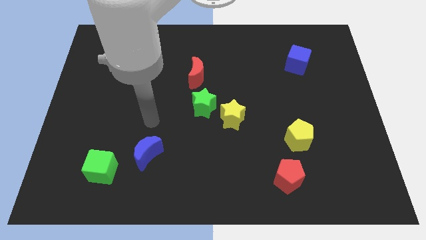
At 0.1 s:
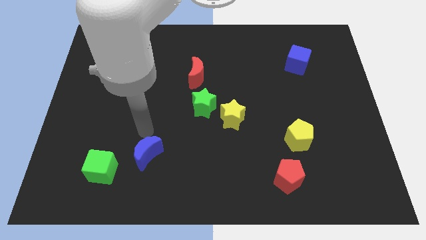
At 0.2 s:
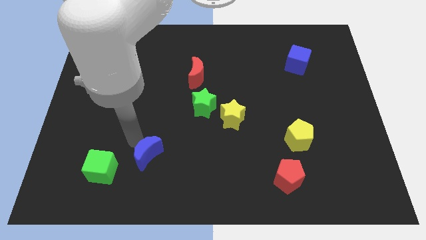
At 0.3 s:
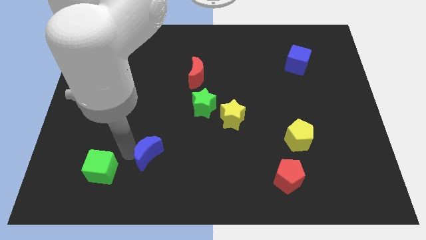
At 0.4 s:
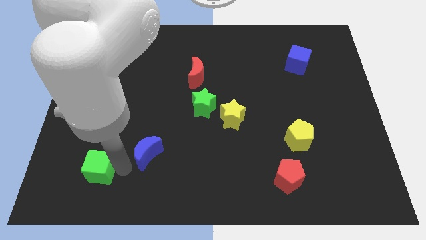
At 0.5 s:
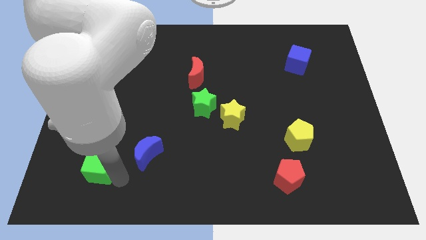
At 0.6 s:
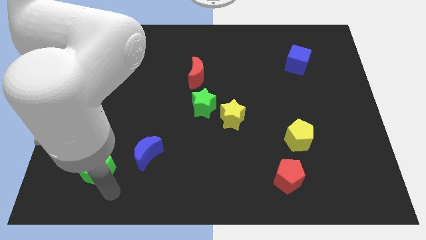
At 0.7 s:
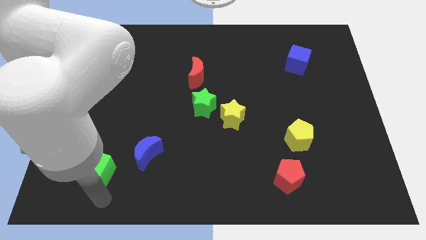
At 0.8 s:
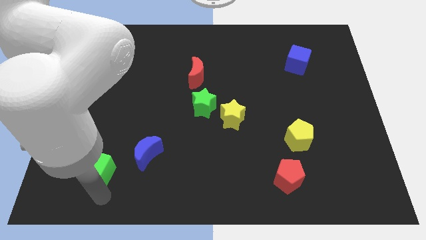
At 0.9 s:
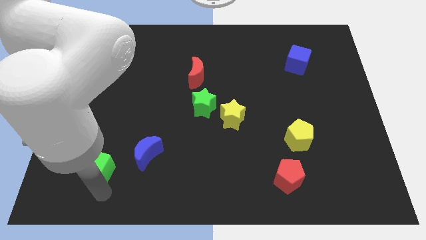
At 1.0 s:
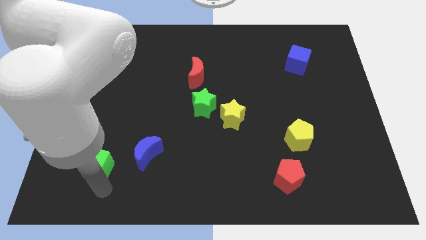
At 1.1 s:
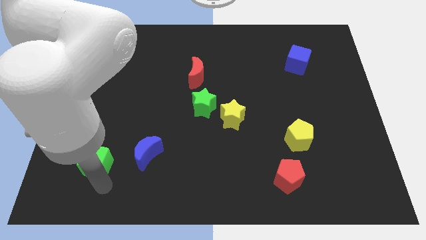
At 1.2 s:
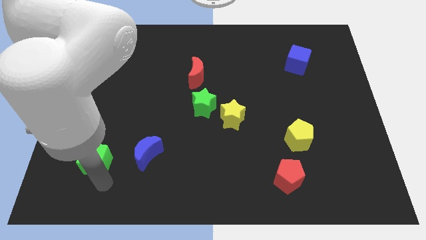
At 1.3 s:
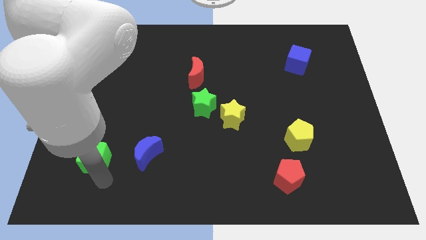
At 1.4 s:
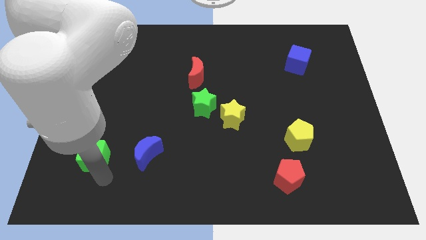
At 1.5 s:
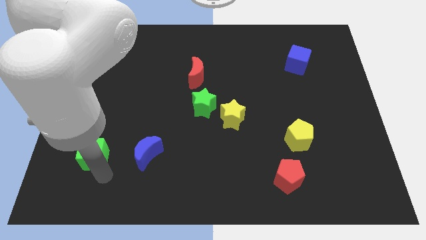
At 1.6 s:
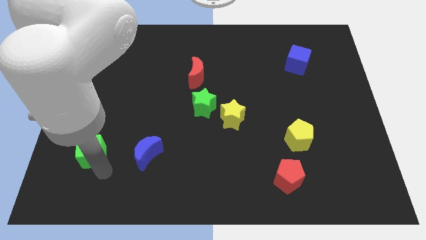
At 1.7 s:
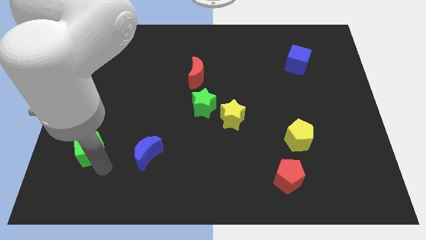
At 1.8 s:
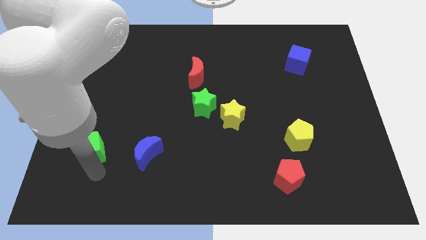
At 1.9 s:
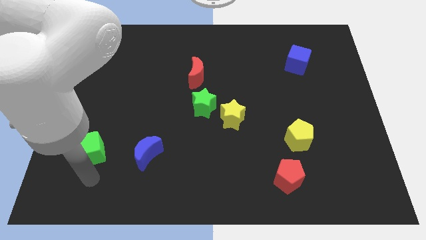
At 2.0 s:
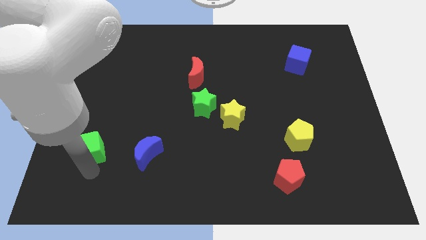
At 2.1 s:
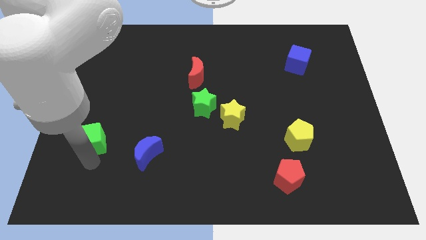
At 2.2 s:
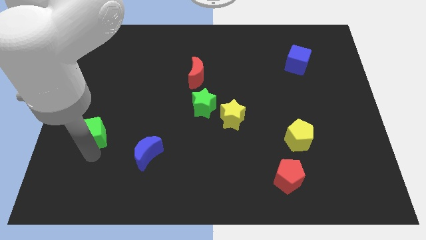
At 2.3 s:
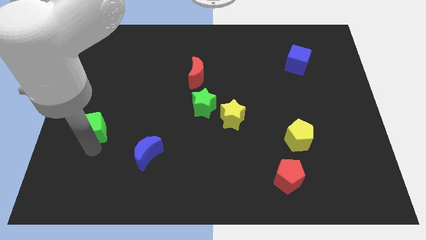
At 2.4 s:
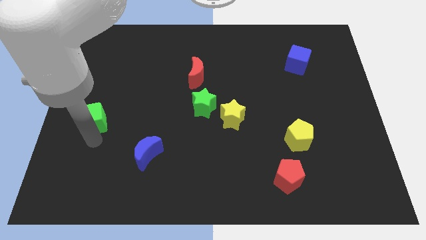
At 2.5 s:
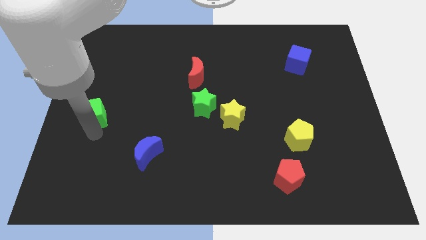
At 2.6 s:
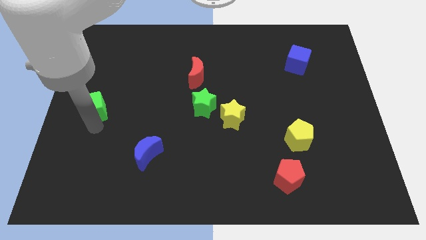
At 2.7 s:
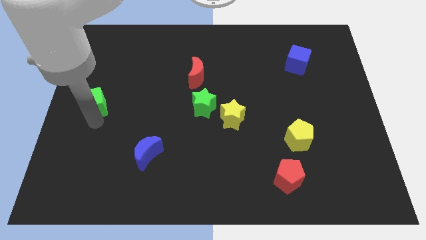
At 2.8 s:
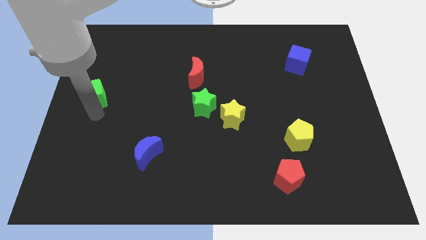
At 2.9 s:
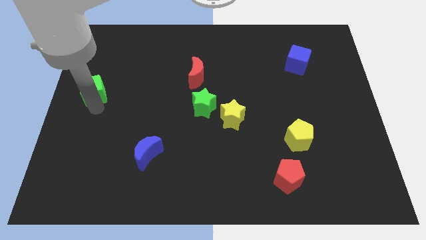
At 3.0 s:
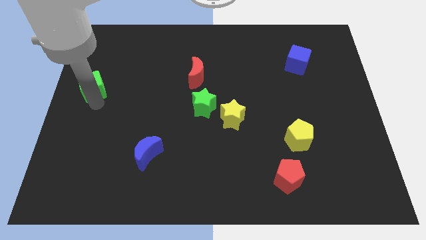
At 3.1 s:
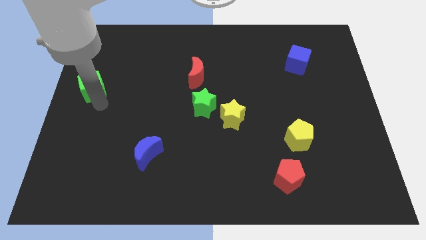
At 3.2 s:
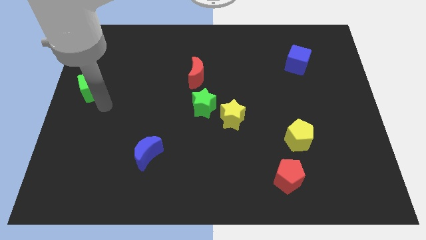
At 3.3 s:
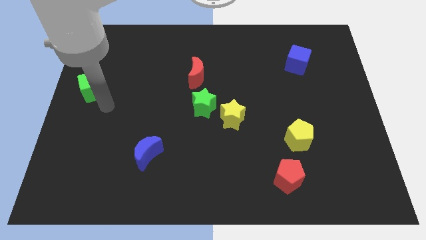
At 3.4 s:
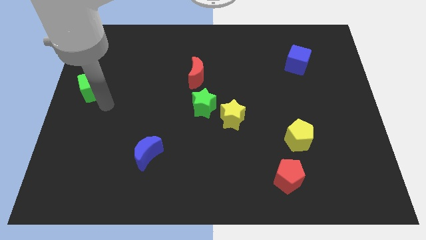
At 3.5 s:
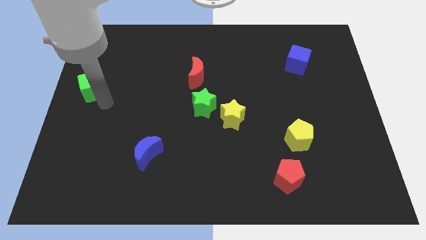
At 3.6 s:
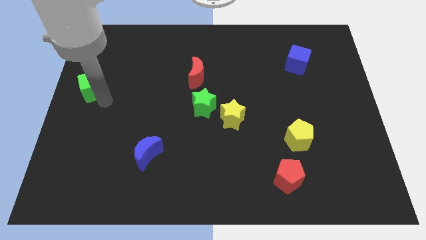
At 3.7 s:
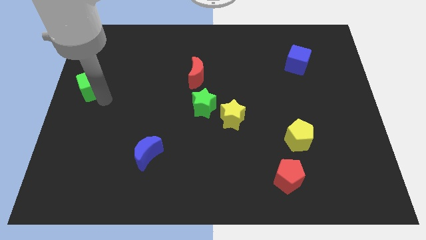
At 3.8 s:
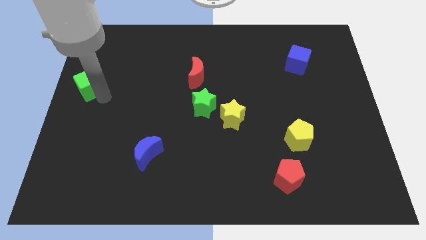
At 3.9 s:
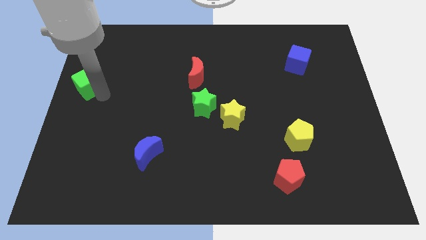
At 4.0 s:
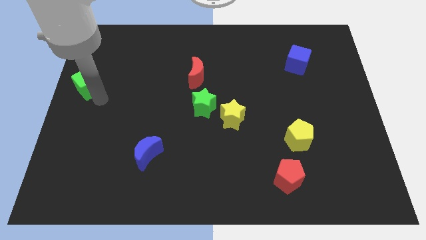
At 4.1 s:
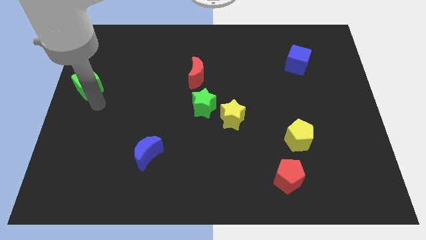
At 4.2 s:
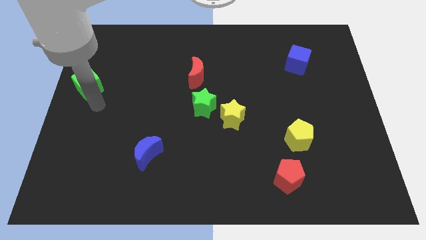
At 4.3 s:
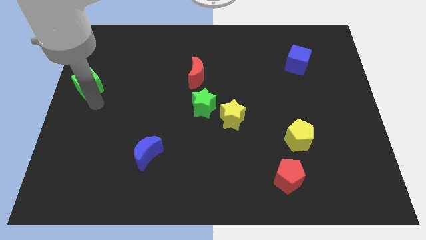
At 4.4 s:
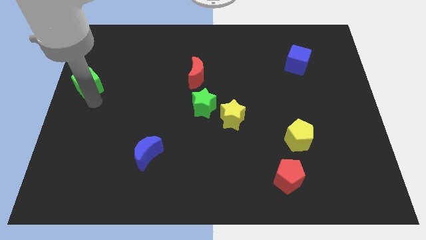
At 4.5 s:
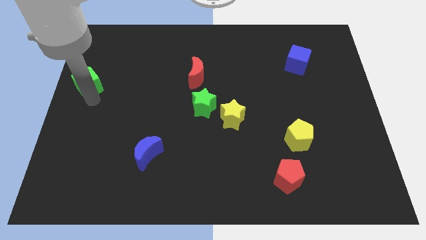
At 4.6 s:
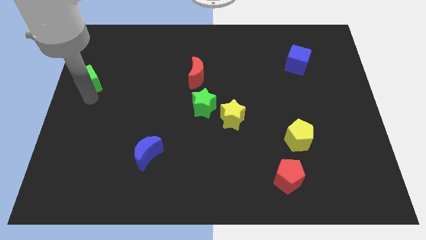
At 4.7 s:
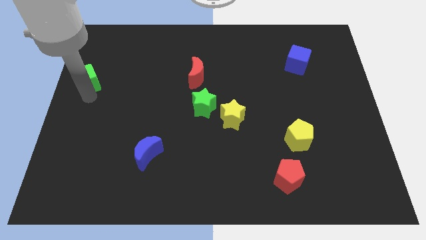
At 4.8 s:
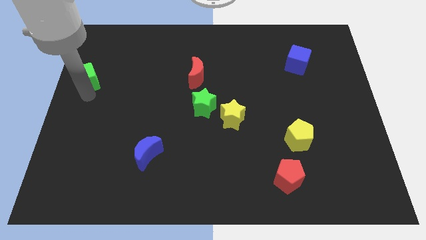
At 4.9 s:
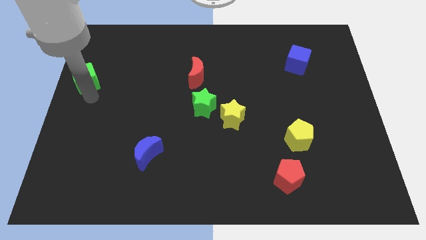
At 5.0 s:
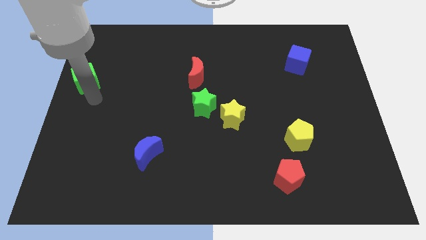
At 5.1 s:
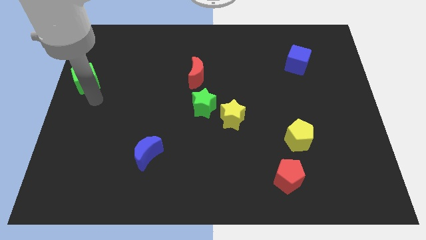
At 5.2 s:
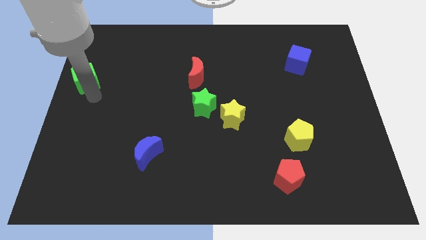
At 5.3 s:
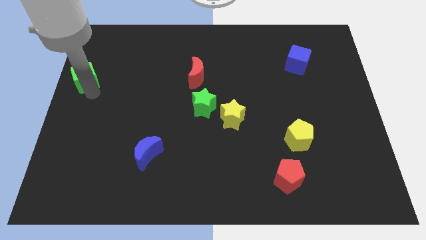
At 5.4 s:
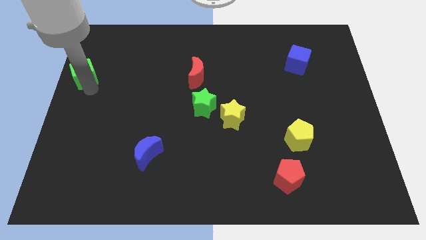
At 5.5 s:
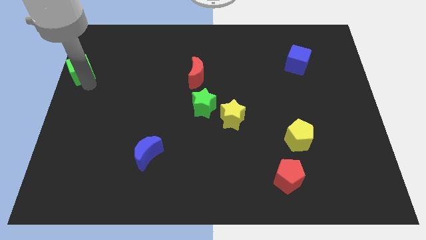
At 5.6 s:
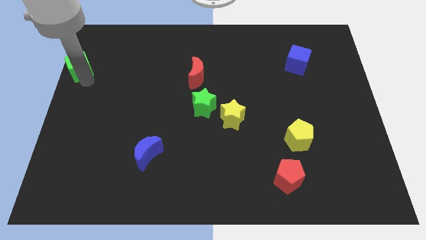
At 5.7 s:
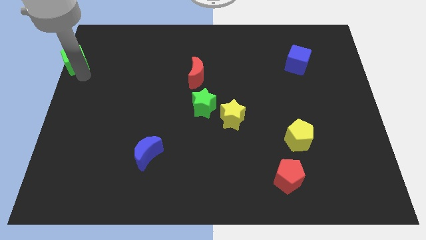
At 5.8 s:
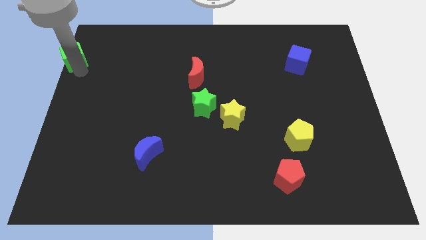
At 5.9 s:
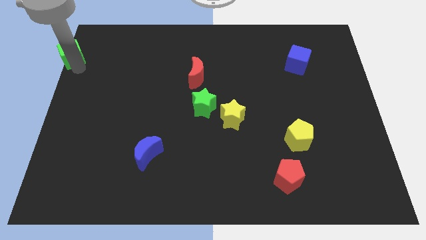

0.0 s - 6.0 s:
move the green cube to the upper left corner

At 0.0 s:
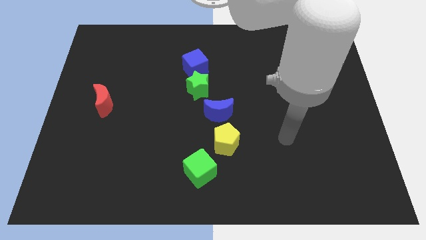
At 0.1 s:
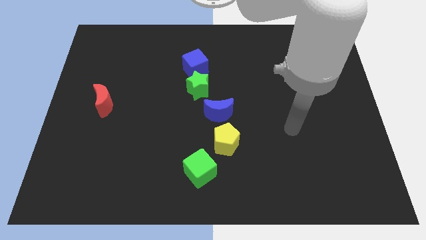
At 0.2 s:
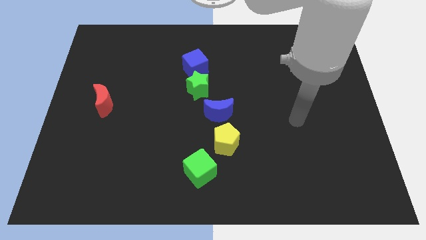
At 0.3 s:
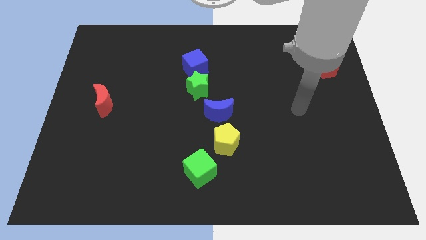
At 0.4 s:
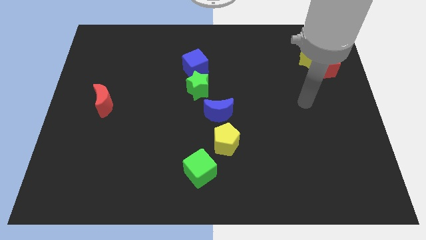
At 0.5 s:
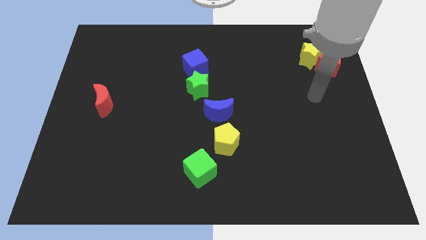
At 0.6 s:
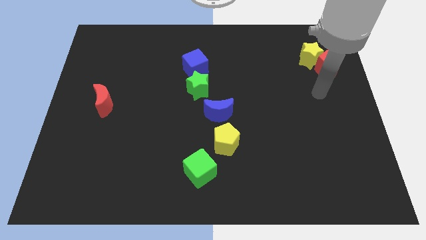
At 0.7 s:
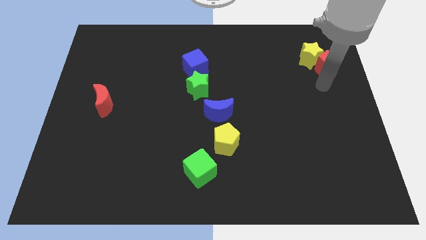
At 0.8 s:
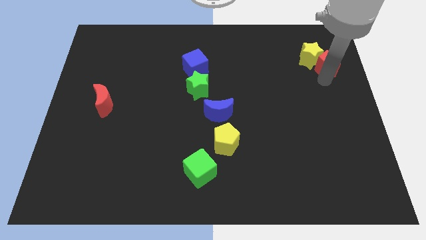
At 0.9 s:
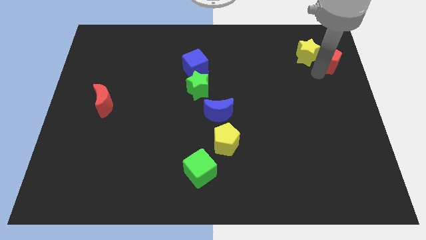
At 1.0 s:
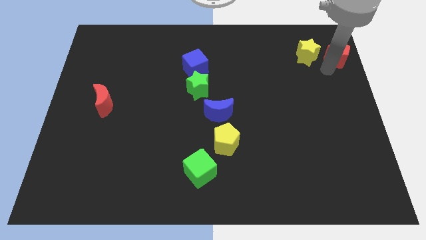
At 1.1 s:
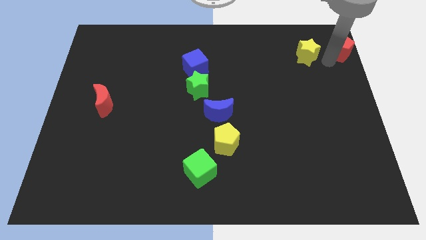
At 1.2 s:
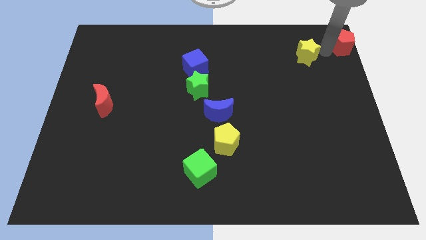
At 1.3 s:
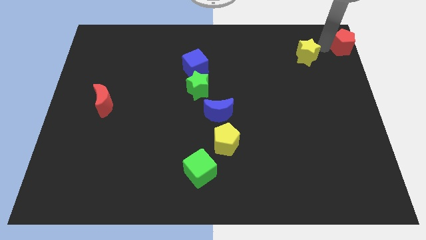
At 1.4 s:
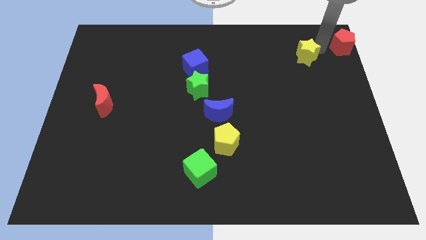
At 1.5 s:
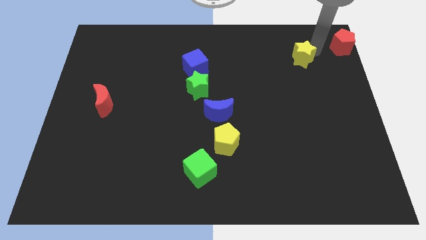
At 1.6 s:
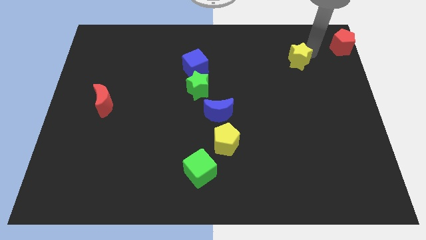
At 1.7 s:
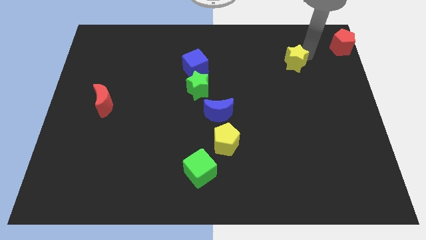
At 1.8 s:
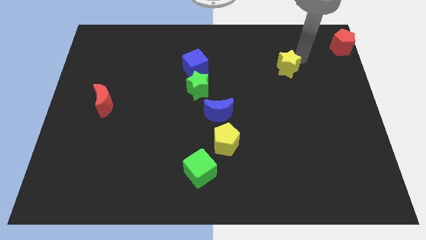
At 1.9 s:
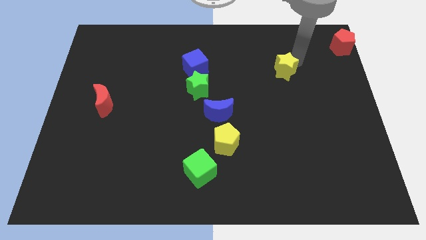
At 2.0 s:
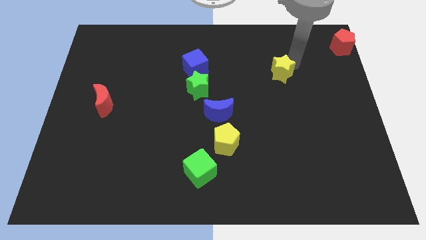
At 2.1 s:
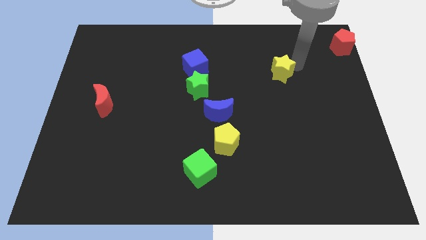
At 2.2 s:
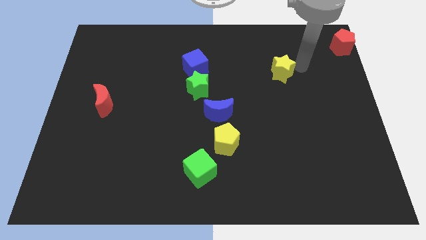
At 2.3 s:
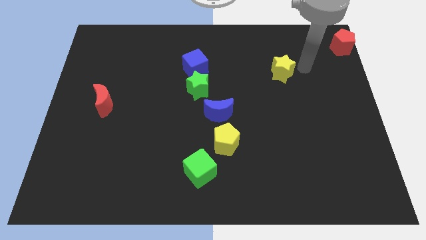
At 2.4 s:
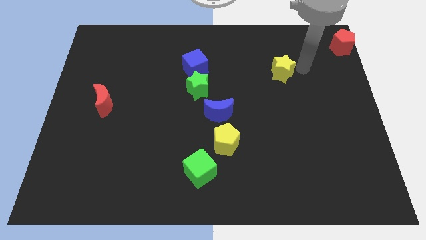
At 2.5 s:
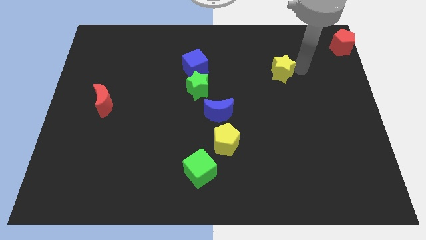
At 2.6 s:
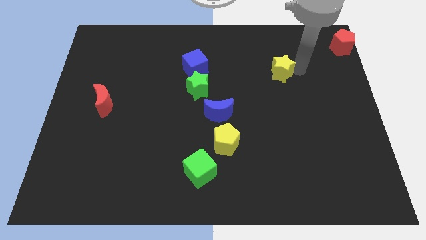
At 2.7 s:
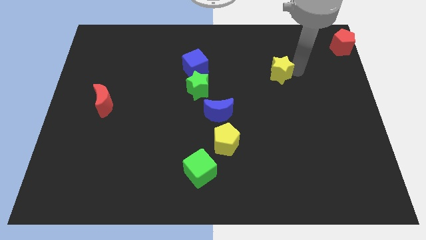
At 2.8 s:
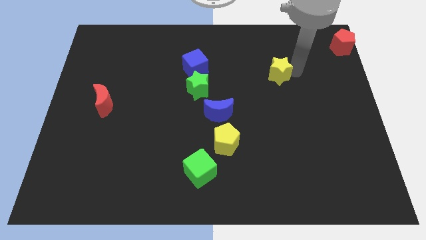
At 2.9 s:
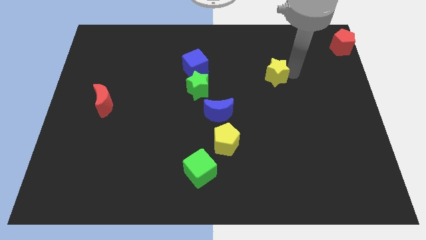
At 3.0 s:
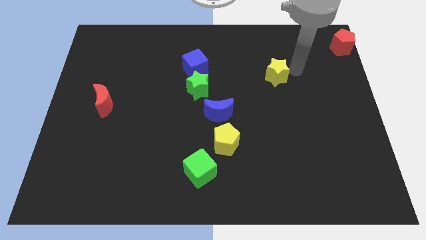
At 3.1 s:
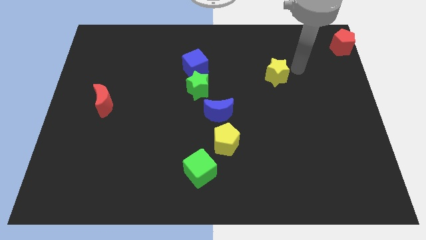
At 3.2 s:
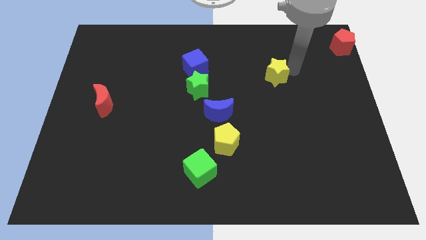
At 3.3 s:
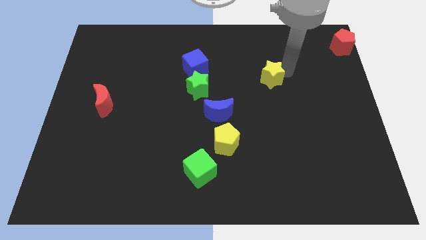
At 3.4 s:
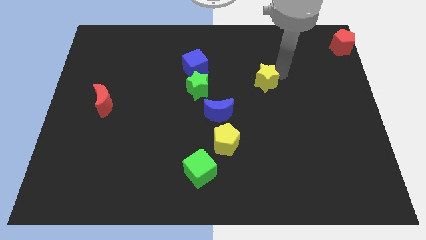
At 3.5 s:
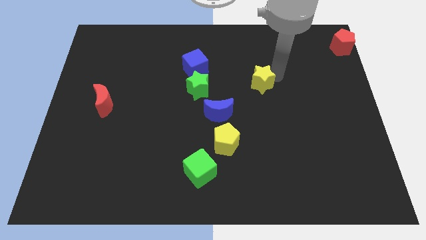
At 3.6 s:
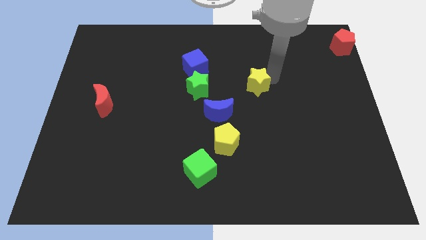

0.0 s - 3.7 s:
put the yellow star to the middle
